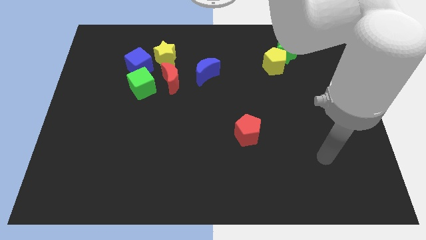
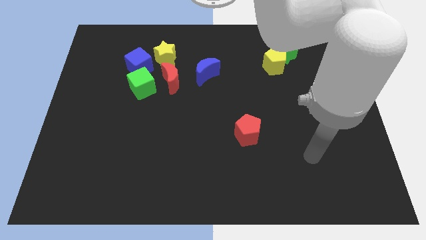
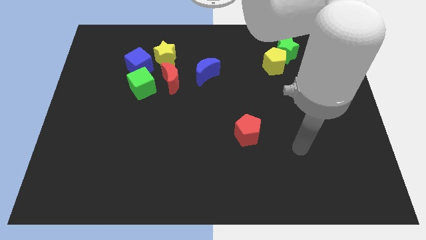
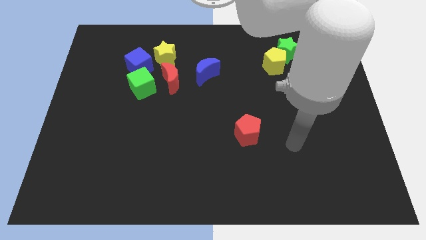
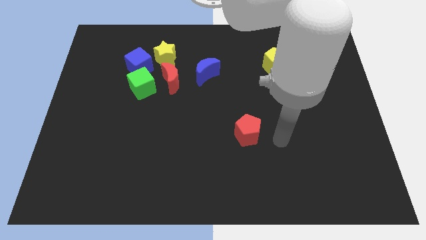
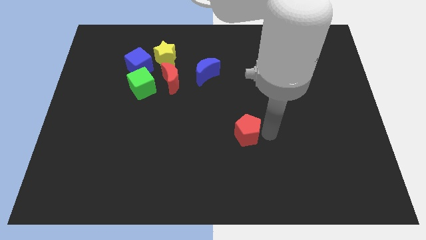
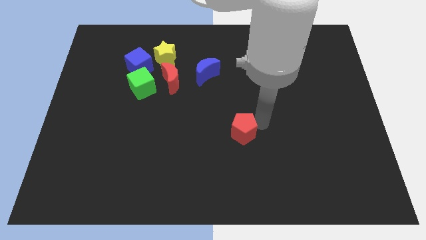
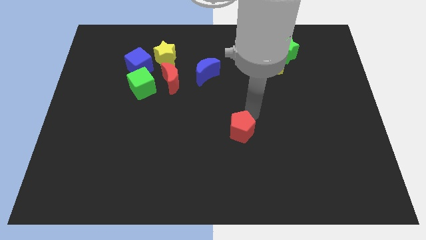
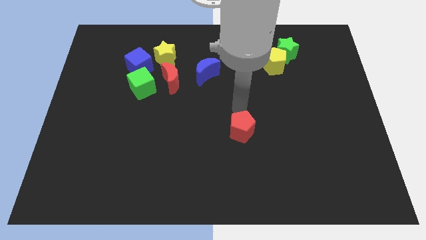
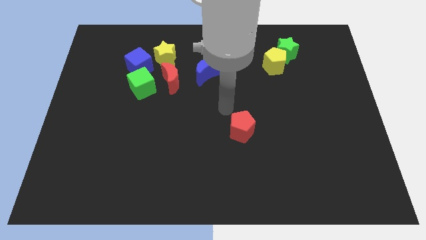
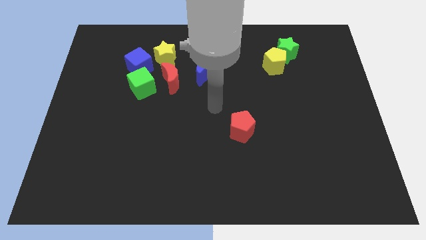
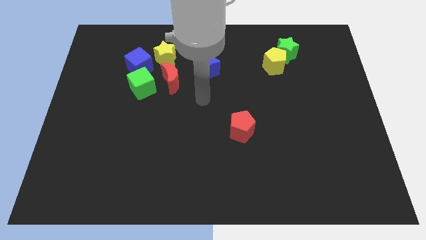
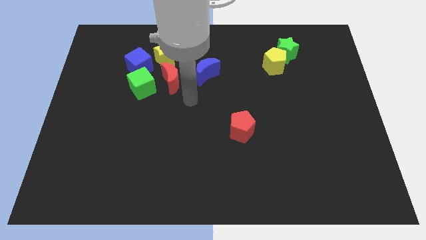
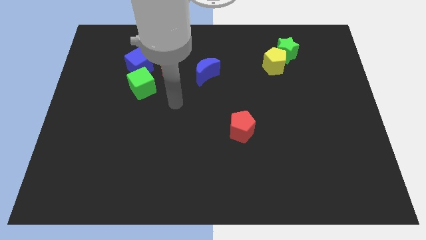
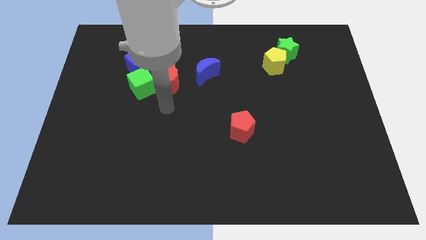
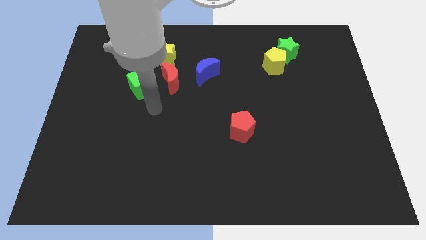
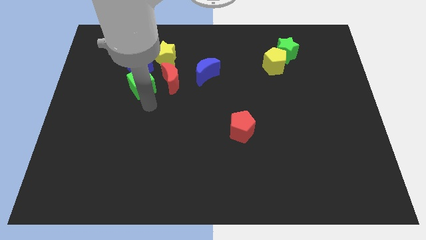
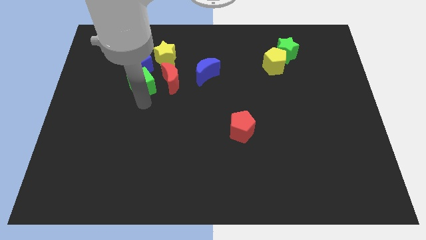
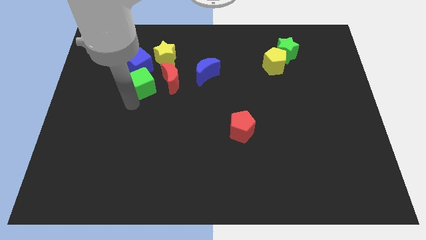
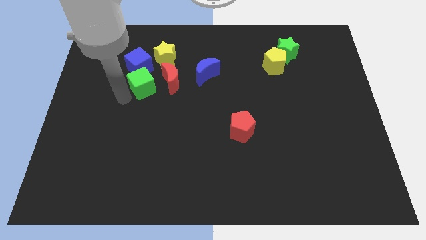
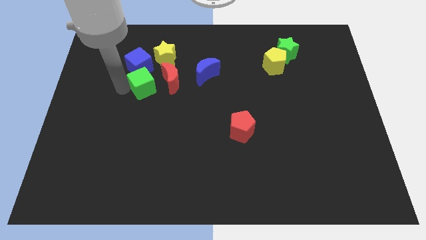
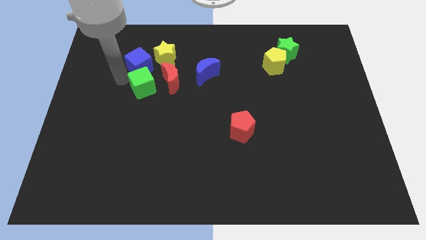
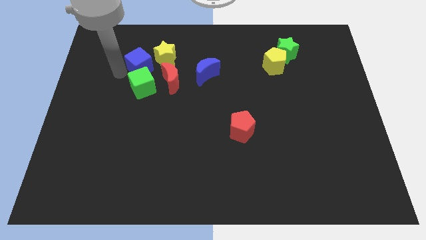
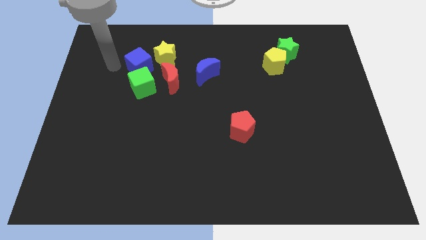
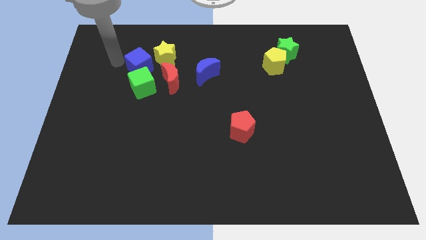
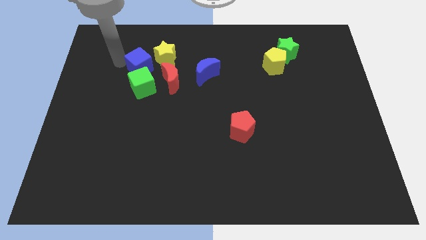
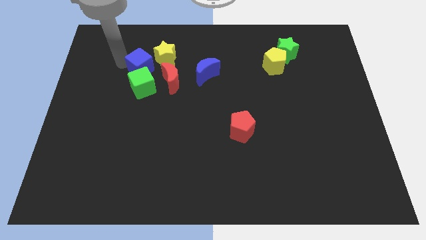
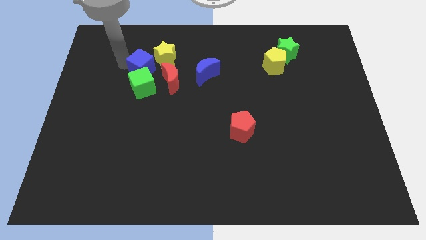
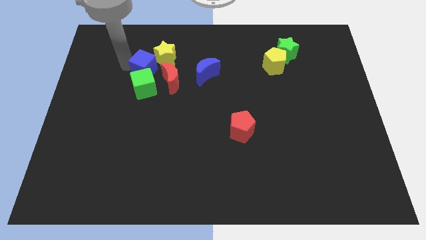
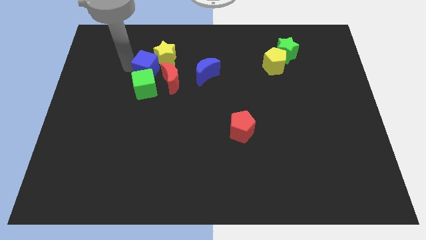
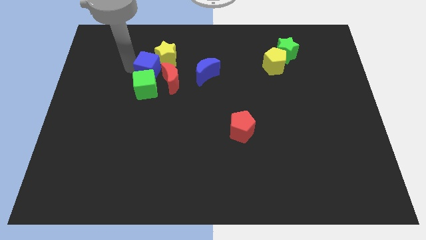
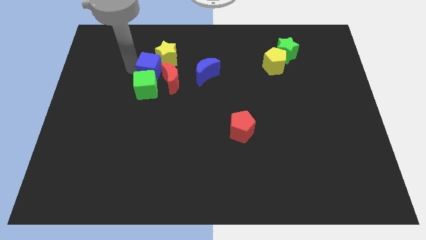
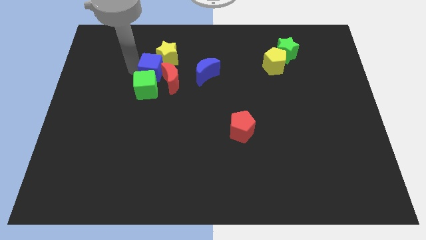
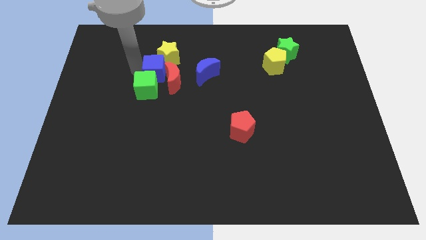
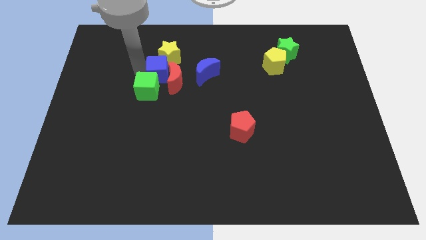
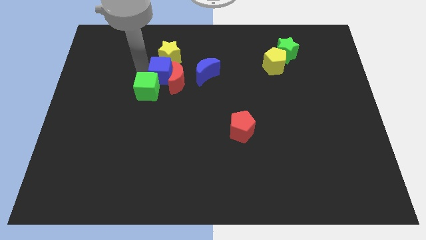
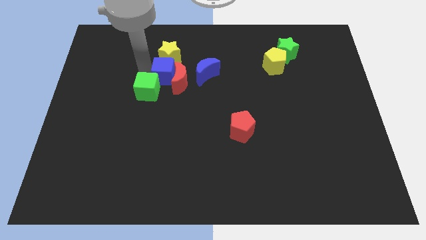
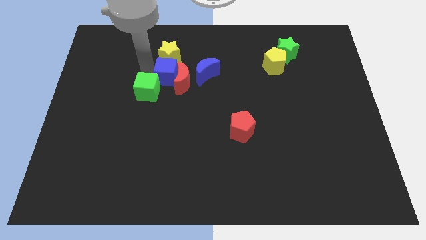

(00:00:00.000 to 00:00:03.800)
slightly slide the blue cube diagonally downwards and to the right

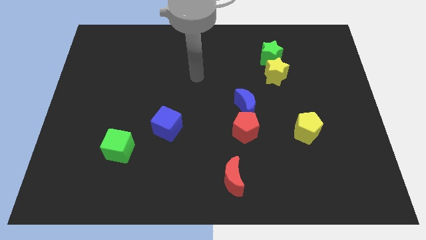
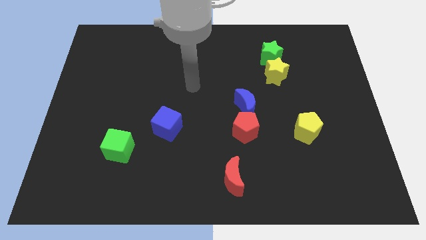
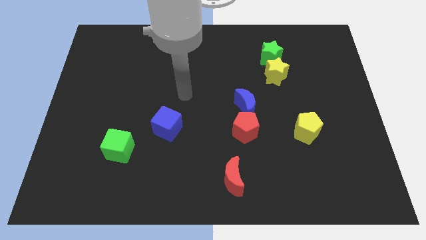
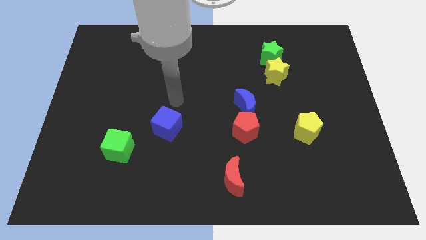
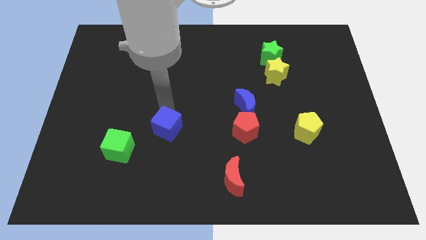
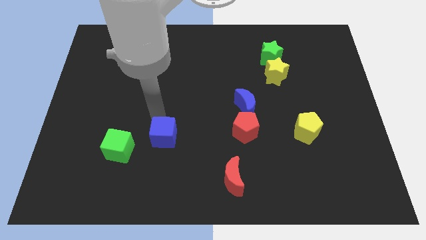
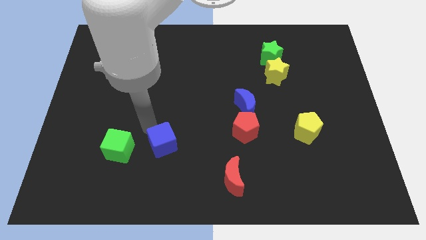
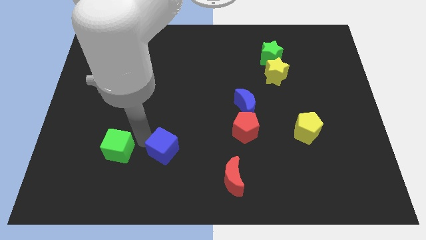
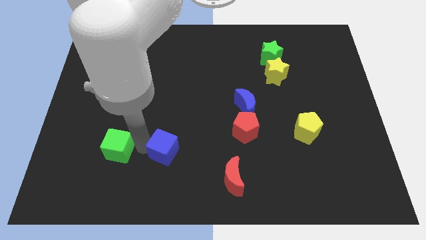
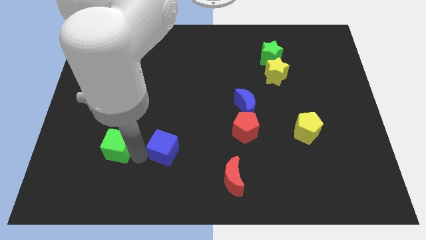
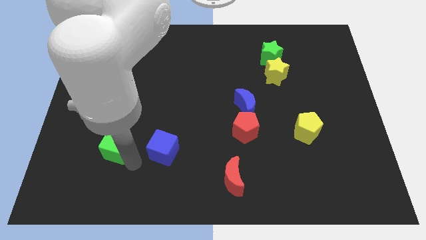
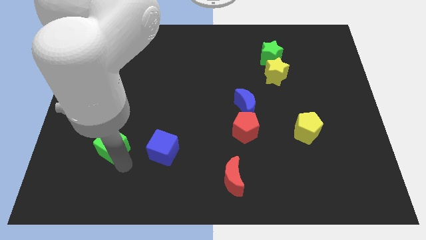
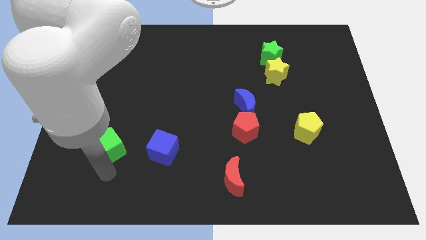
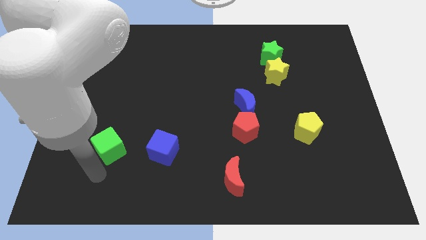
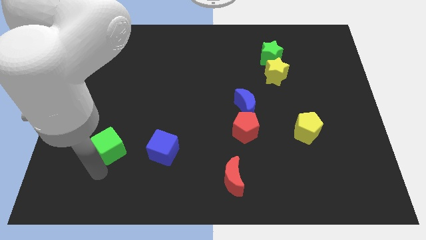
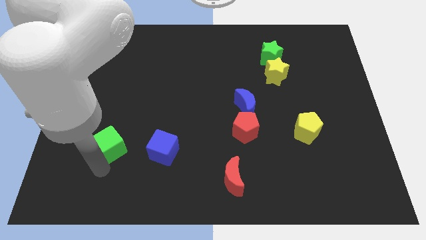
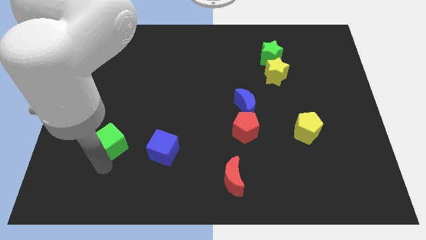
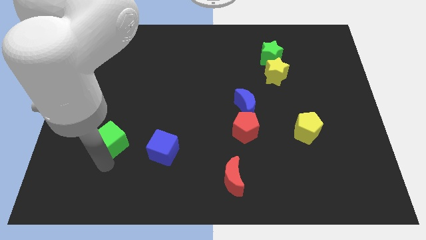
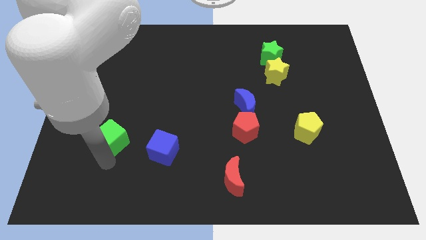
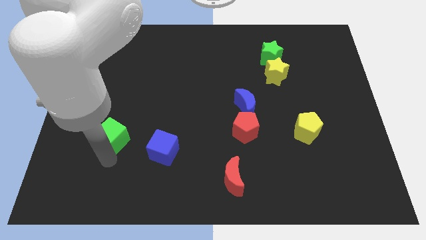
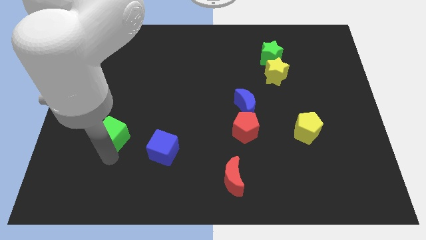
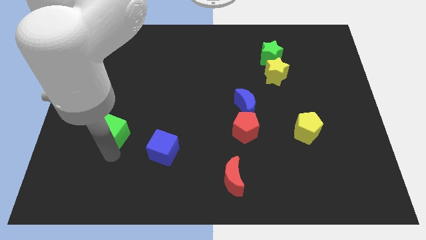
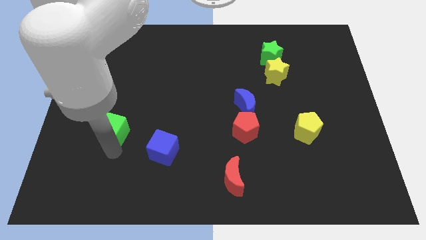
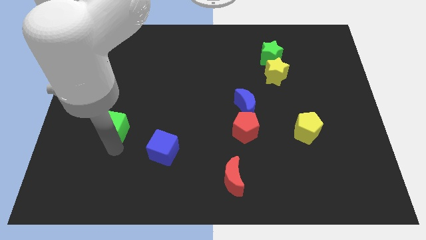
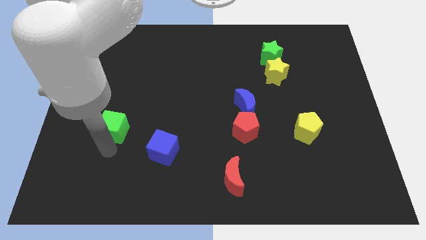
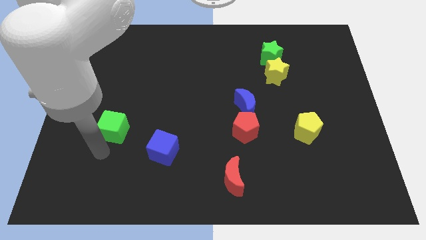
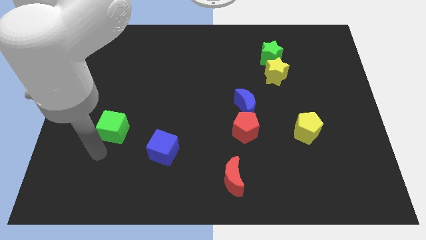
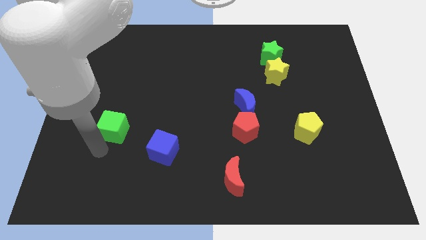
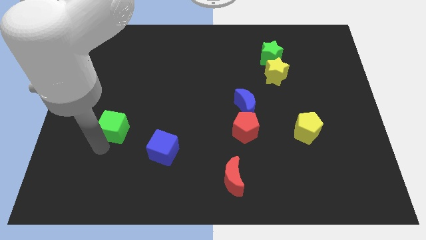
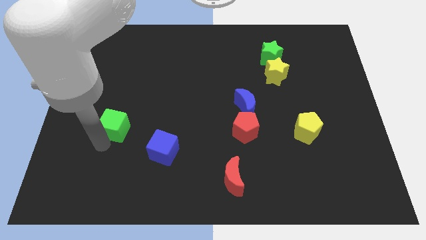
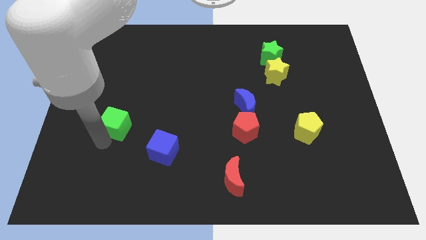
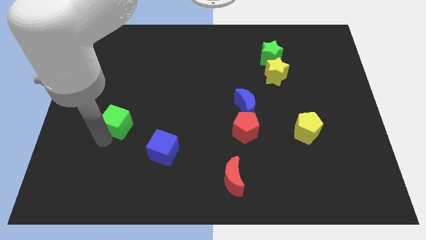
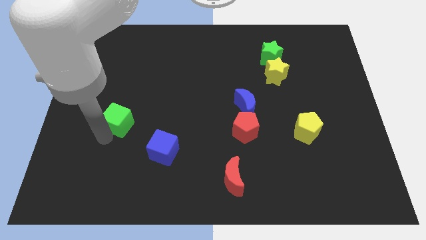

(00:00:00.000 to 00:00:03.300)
push the green cube upwards somewhat

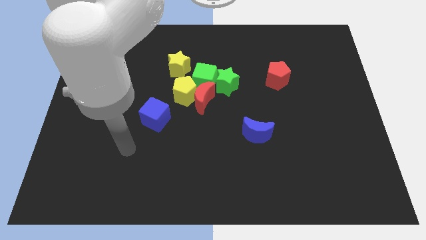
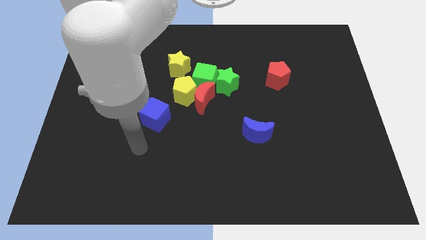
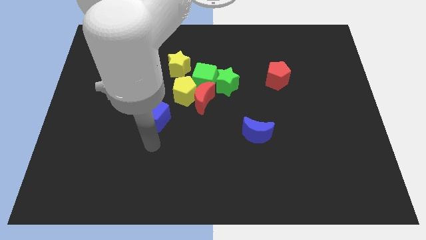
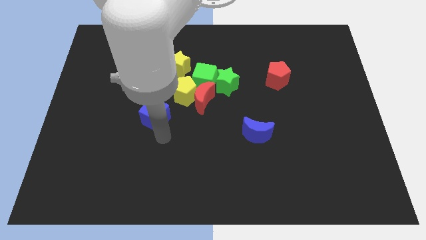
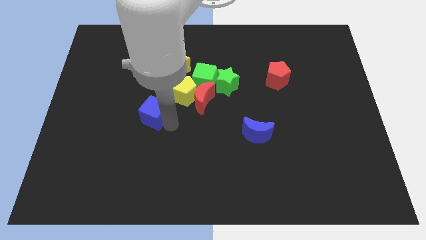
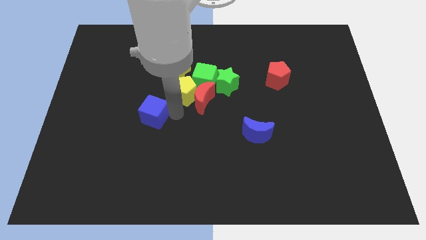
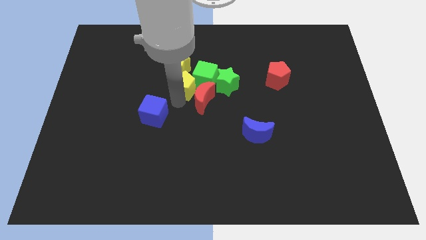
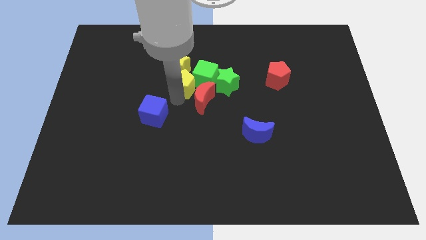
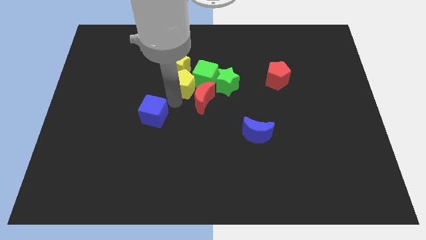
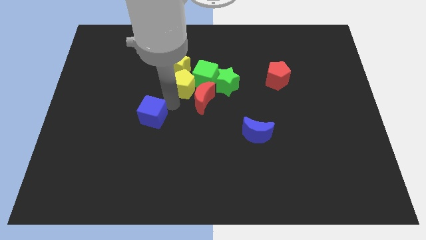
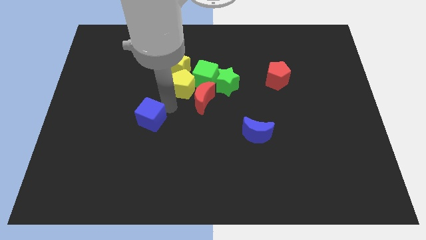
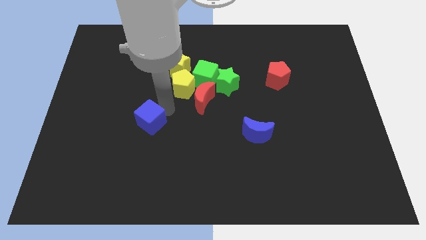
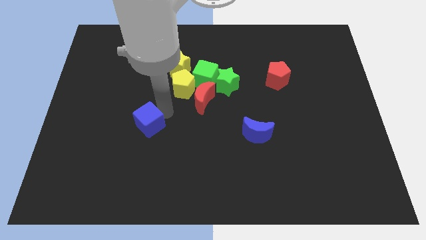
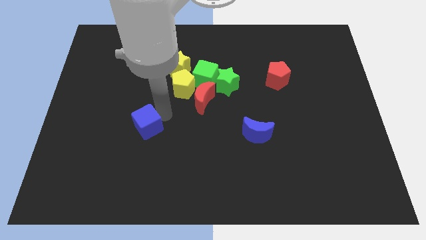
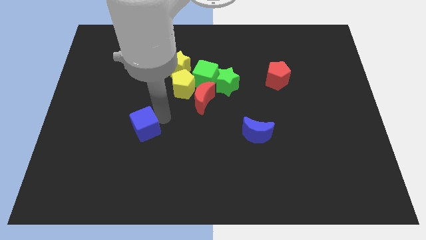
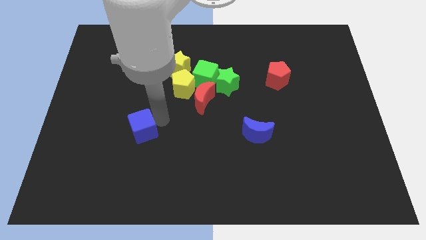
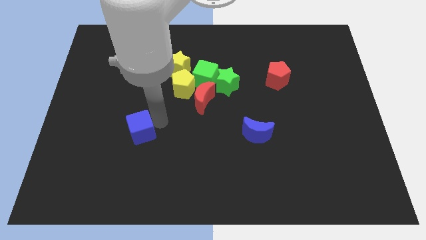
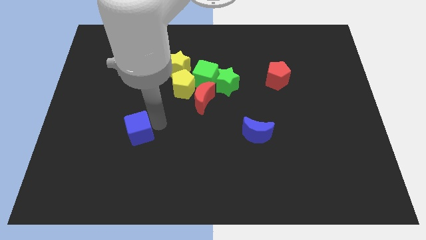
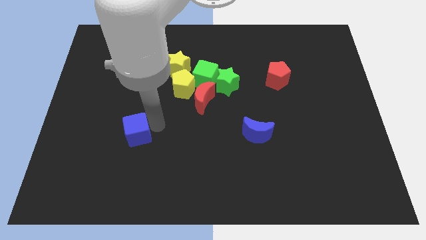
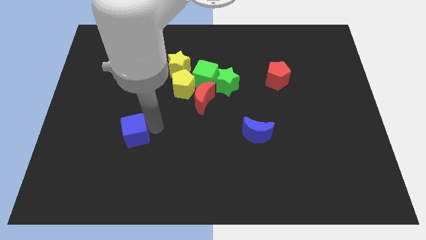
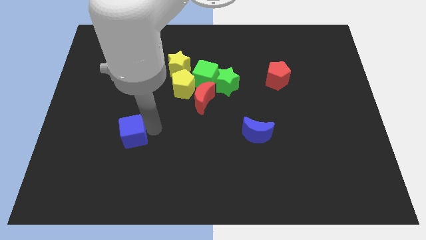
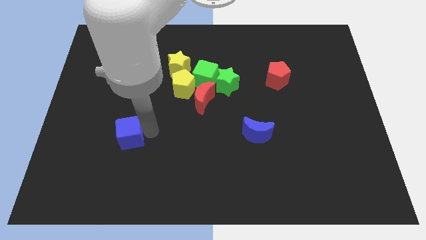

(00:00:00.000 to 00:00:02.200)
slightly push the blue cube down and to the left diagonally
